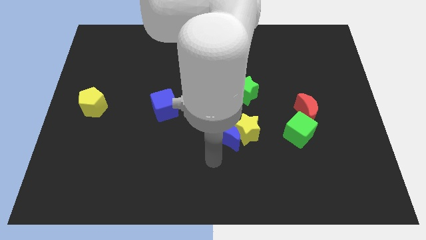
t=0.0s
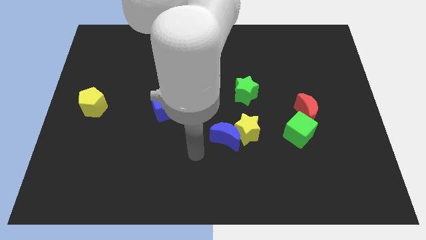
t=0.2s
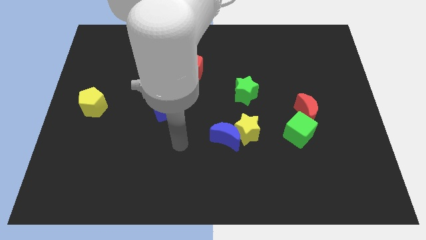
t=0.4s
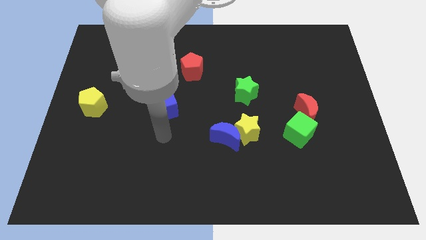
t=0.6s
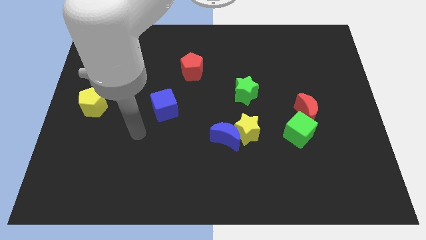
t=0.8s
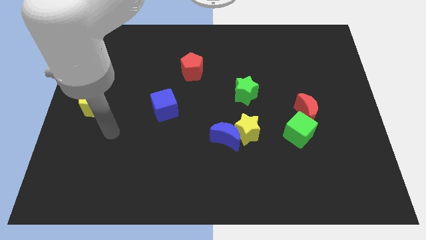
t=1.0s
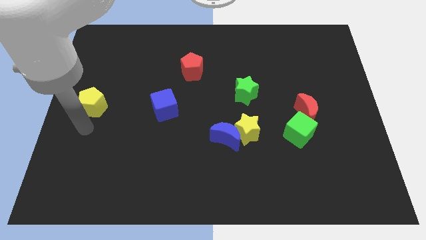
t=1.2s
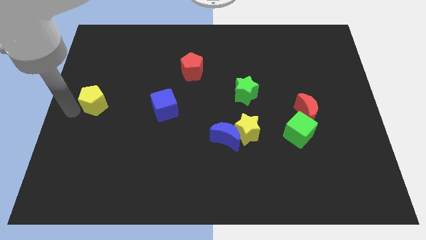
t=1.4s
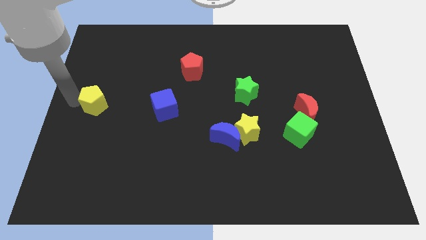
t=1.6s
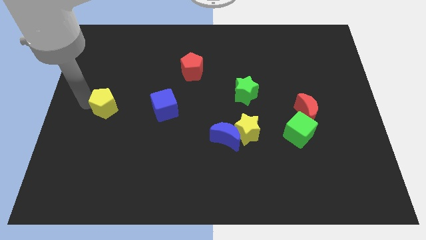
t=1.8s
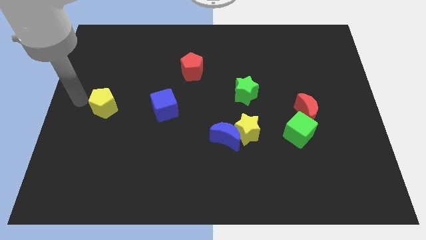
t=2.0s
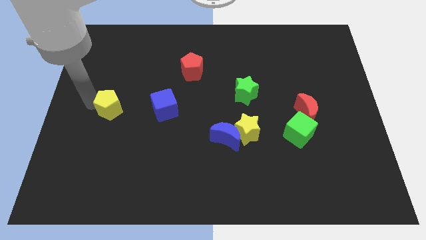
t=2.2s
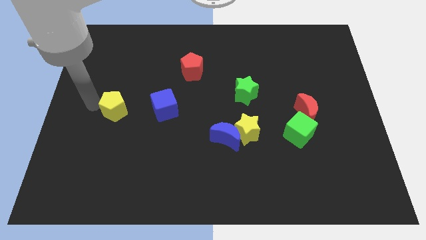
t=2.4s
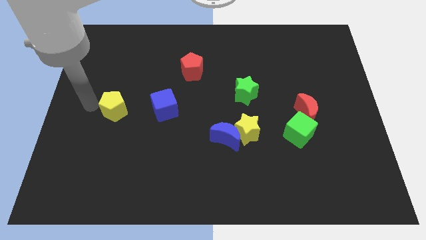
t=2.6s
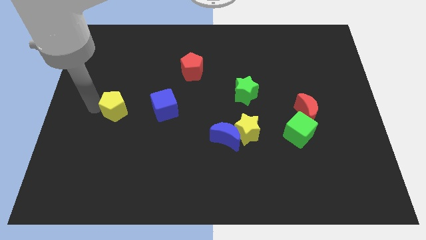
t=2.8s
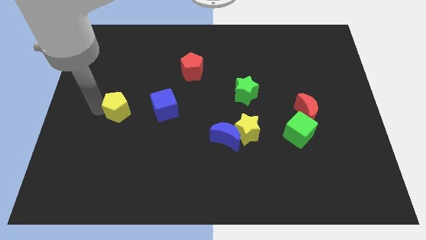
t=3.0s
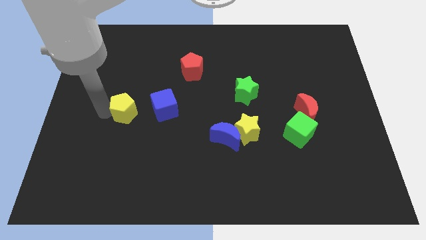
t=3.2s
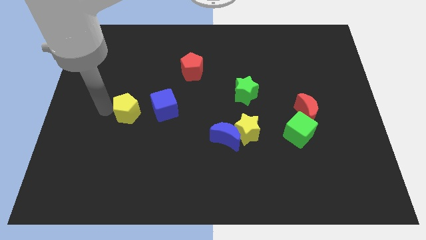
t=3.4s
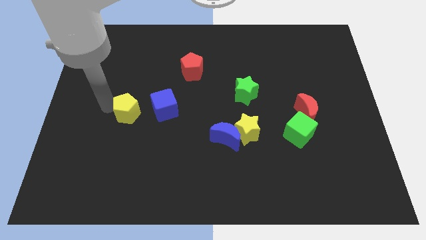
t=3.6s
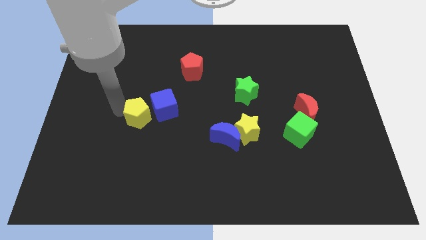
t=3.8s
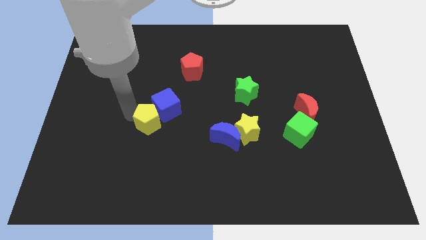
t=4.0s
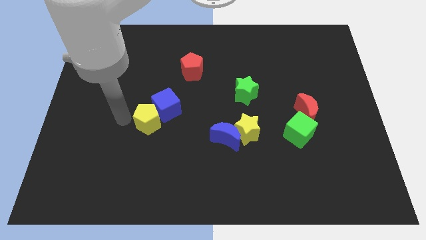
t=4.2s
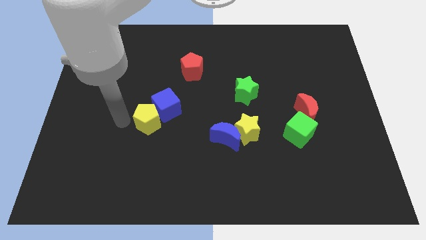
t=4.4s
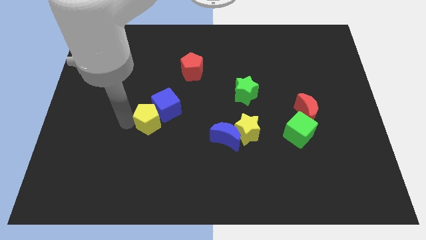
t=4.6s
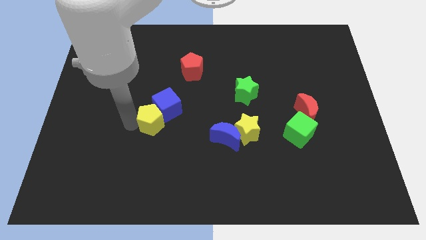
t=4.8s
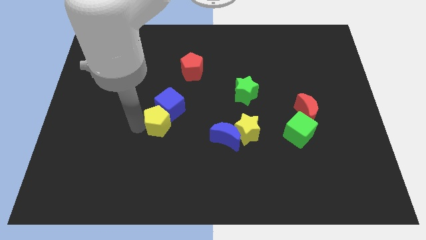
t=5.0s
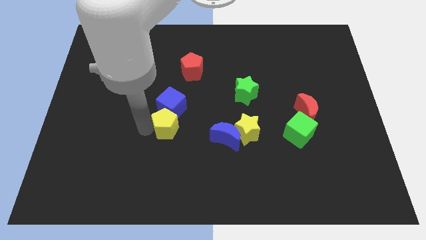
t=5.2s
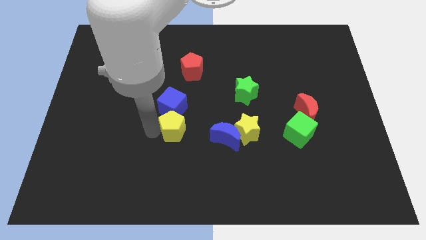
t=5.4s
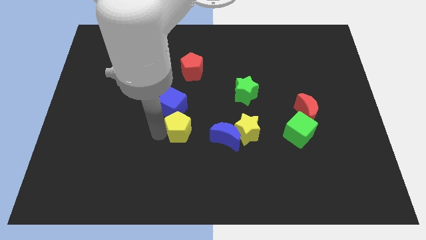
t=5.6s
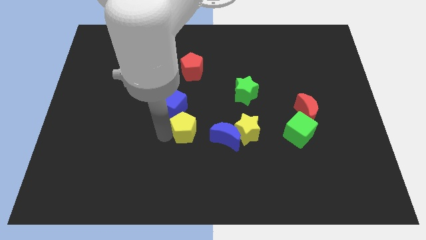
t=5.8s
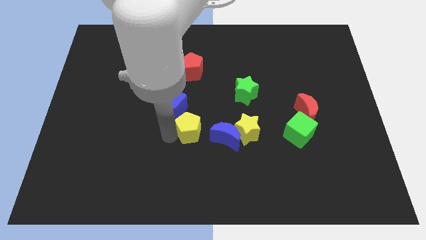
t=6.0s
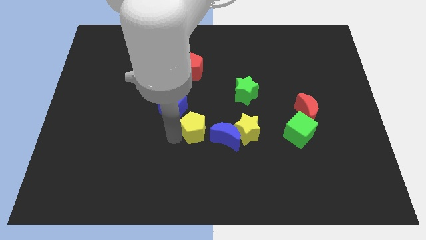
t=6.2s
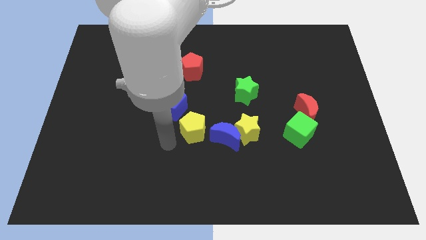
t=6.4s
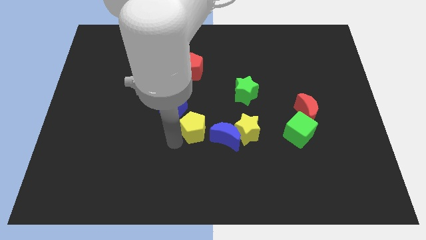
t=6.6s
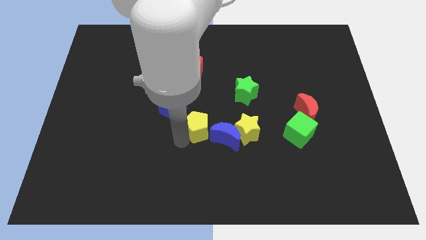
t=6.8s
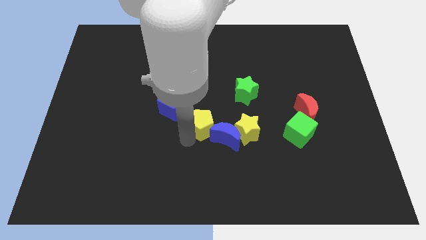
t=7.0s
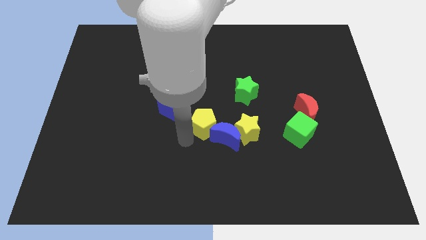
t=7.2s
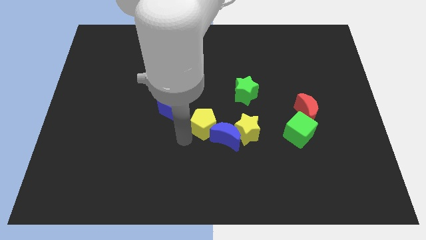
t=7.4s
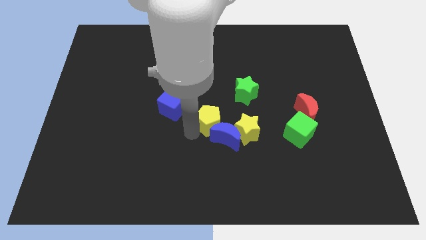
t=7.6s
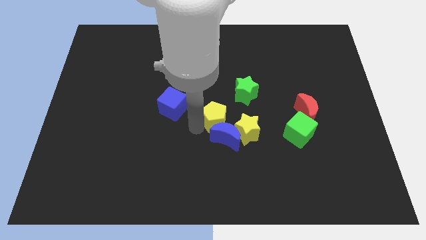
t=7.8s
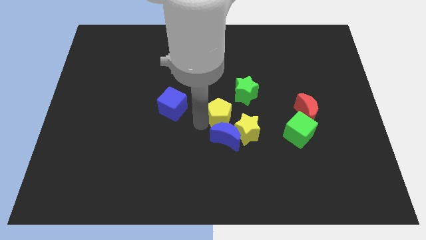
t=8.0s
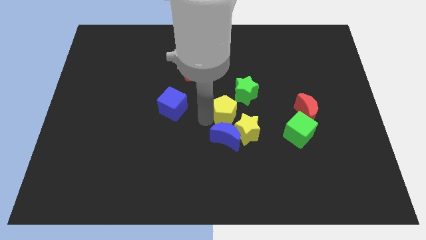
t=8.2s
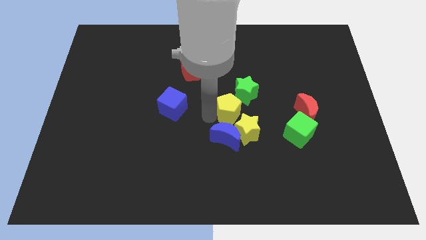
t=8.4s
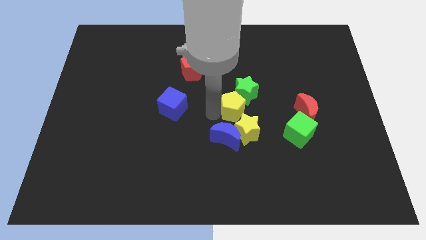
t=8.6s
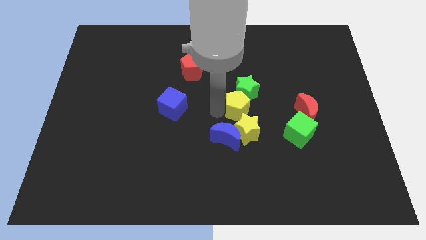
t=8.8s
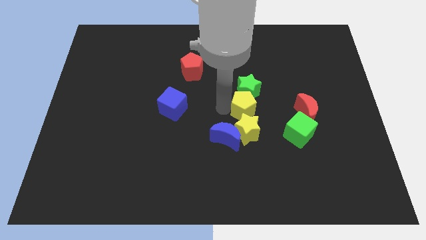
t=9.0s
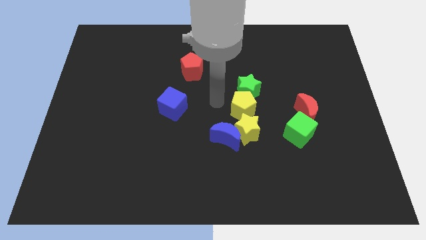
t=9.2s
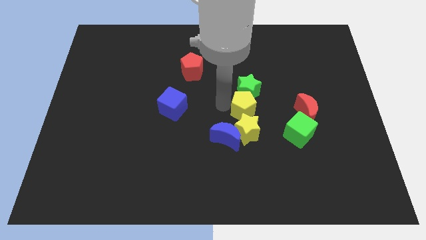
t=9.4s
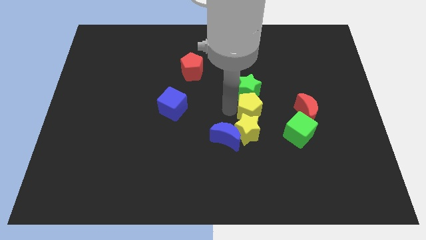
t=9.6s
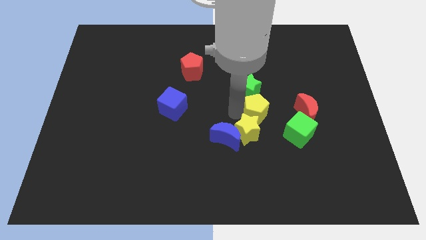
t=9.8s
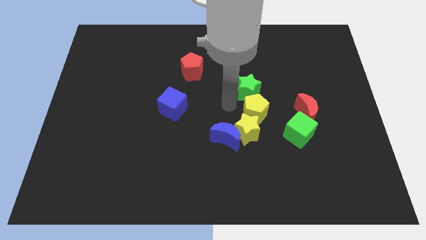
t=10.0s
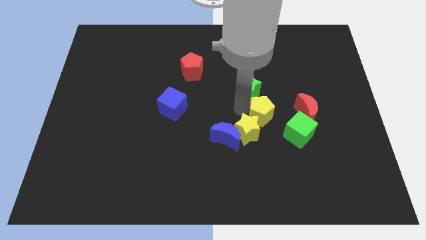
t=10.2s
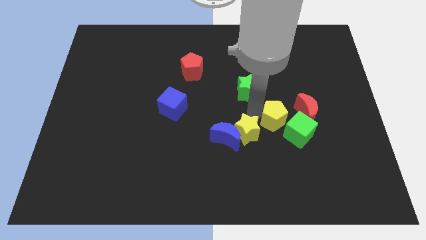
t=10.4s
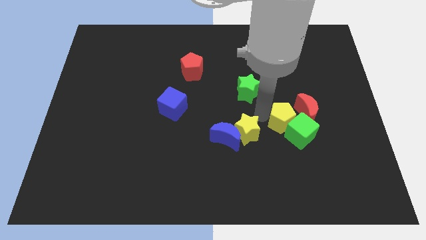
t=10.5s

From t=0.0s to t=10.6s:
move the yellow pentagon towards the green cube

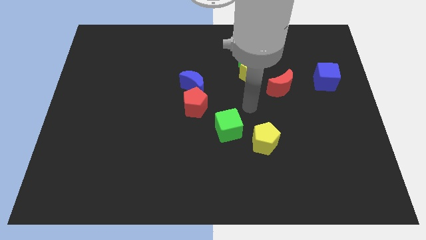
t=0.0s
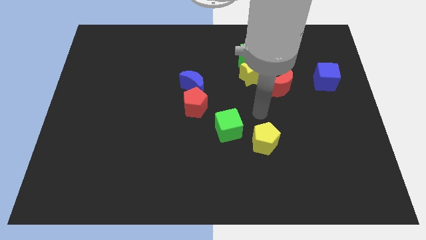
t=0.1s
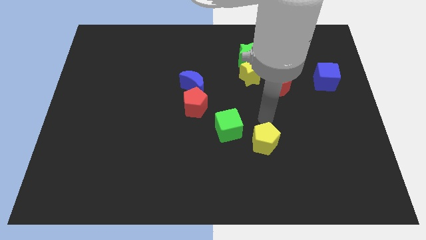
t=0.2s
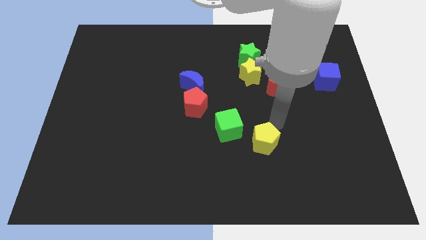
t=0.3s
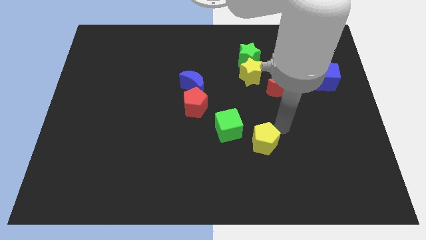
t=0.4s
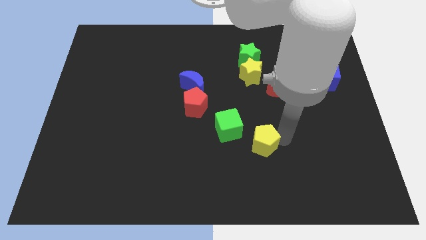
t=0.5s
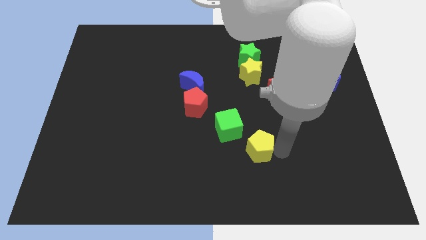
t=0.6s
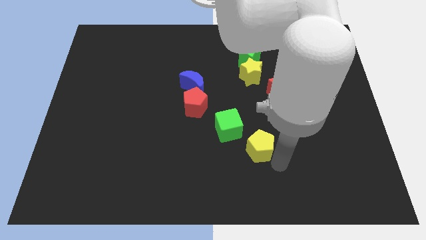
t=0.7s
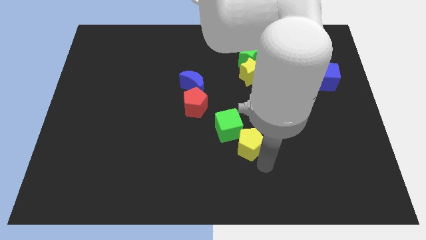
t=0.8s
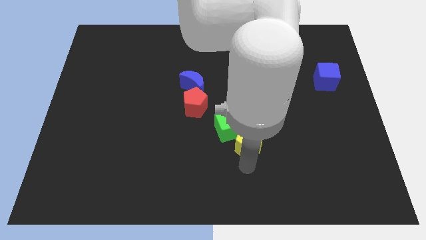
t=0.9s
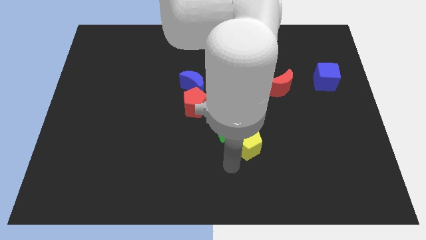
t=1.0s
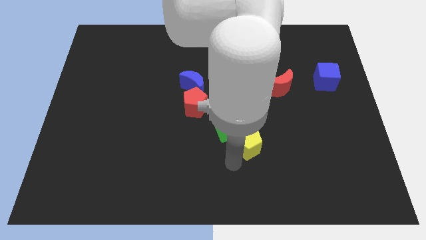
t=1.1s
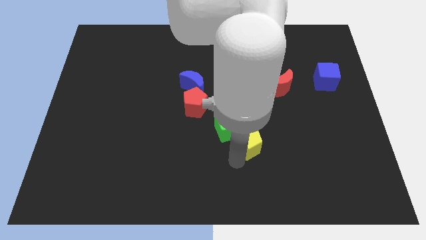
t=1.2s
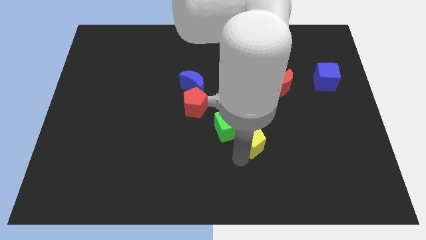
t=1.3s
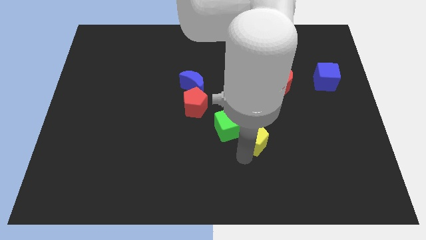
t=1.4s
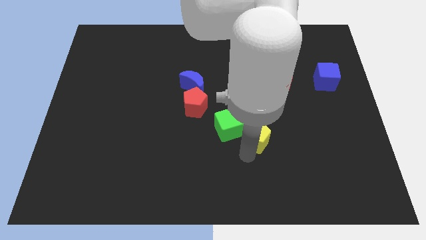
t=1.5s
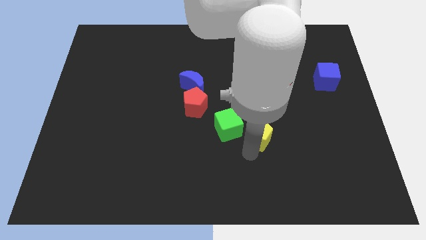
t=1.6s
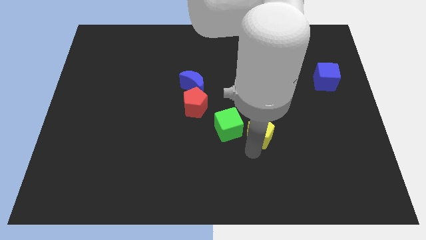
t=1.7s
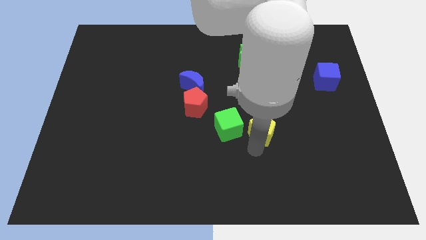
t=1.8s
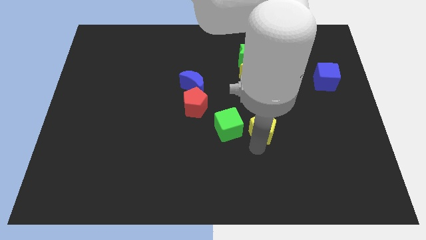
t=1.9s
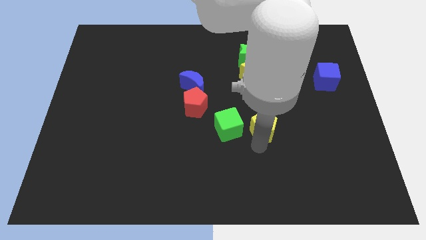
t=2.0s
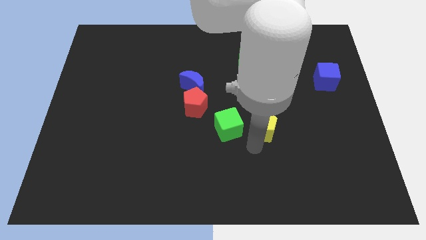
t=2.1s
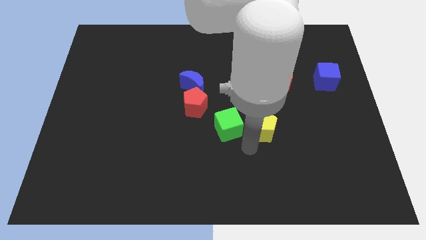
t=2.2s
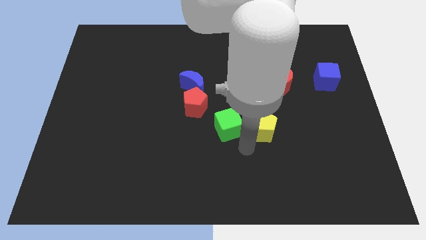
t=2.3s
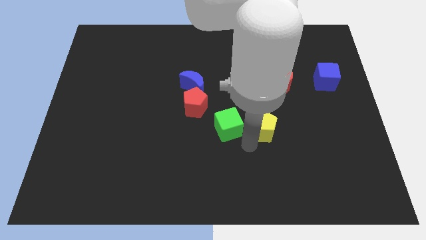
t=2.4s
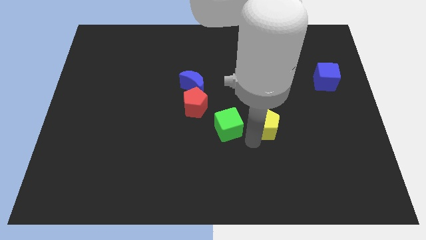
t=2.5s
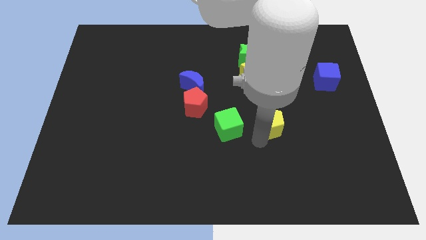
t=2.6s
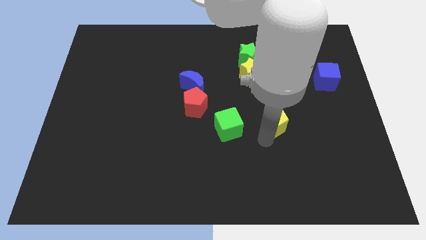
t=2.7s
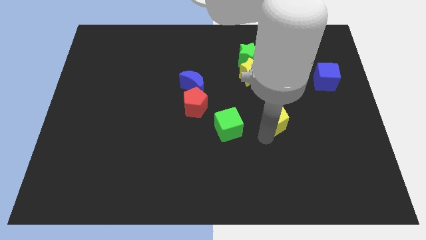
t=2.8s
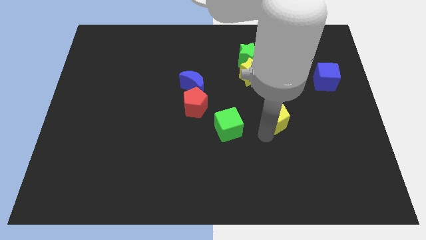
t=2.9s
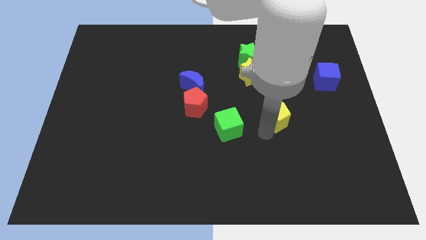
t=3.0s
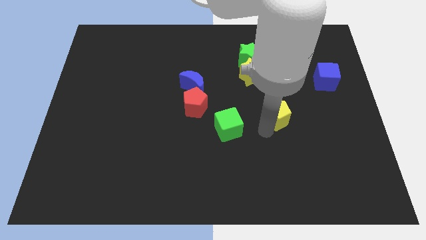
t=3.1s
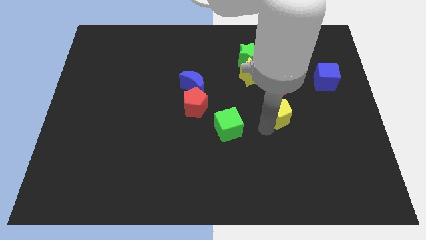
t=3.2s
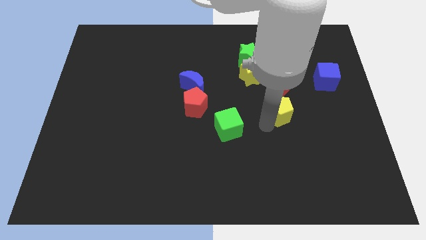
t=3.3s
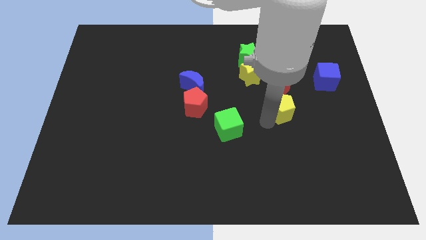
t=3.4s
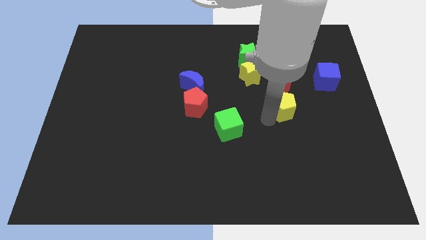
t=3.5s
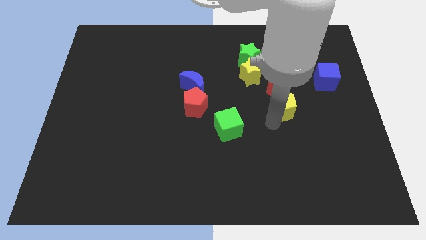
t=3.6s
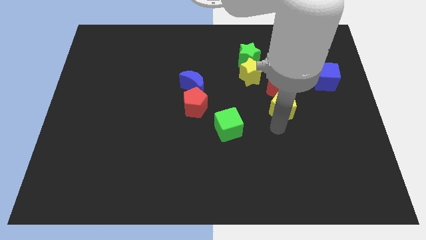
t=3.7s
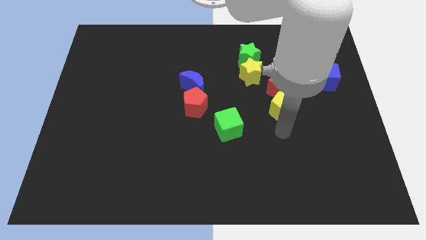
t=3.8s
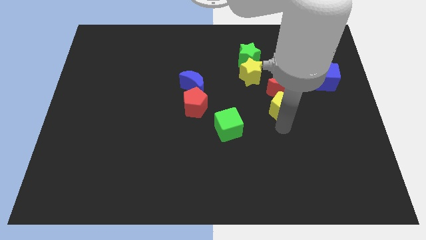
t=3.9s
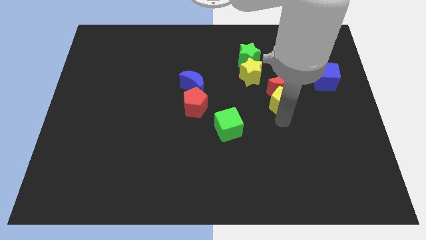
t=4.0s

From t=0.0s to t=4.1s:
put the yellow pentagon next to the red moon
